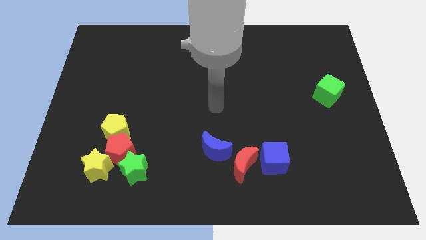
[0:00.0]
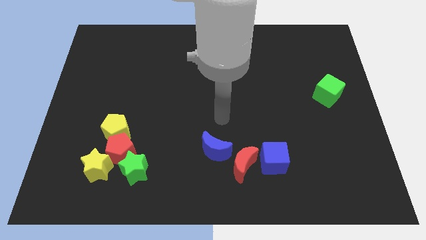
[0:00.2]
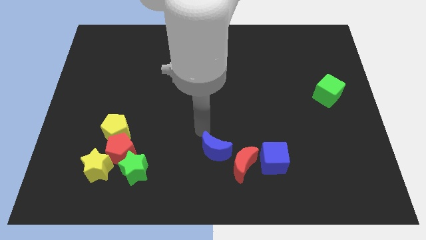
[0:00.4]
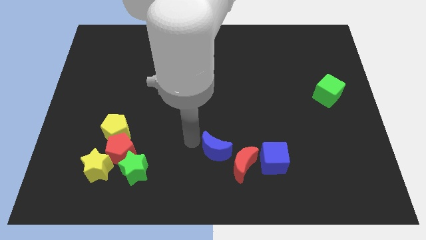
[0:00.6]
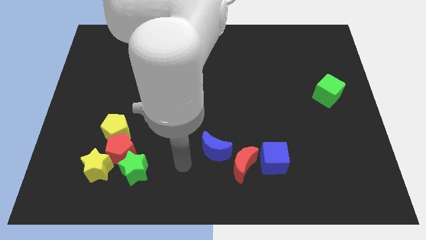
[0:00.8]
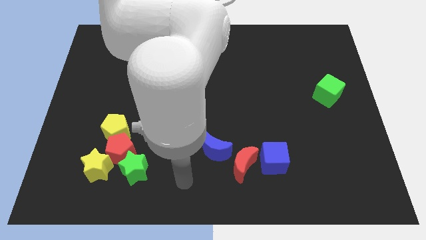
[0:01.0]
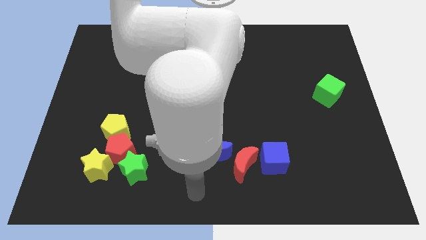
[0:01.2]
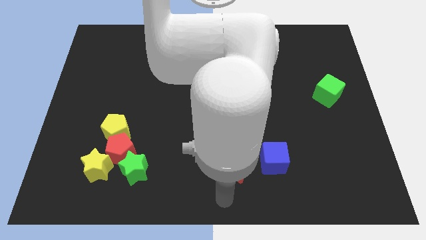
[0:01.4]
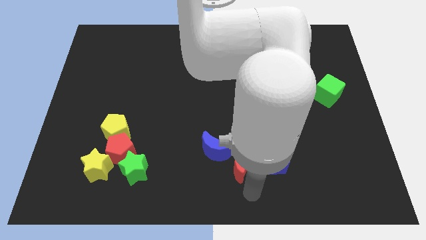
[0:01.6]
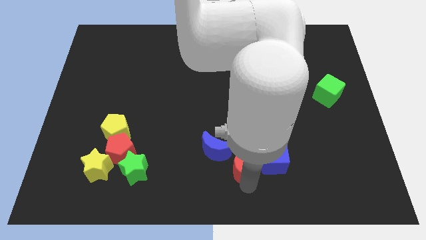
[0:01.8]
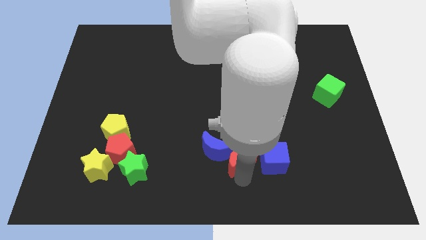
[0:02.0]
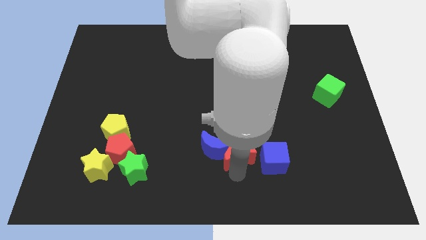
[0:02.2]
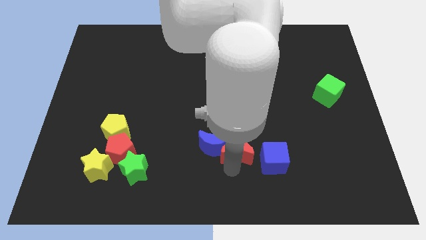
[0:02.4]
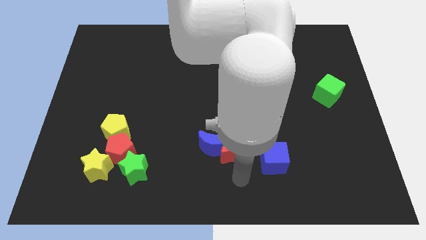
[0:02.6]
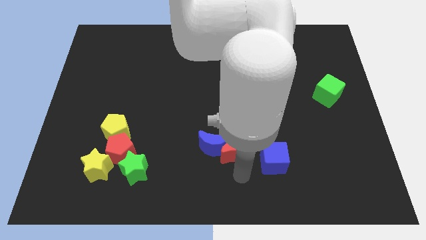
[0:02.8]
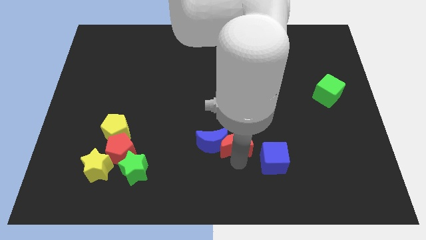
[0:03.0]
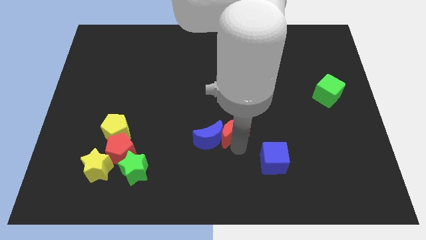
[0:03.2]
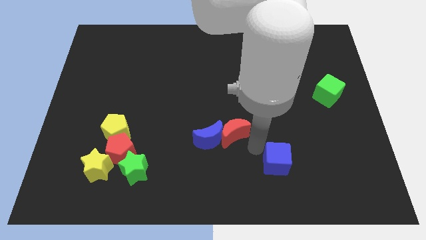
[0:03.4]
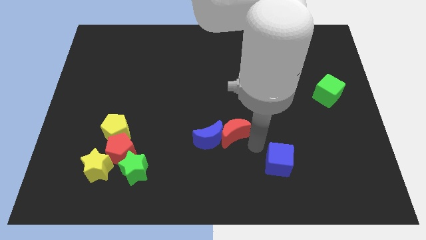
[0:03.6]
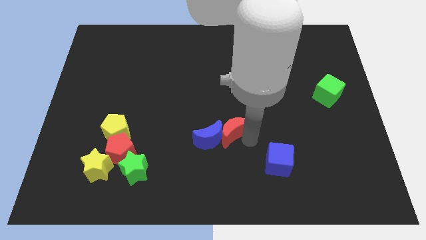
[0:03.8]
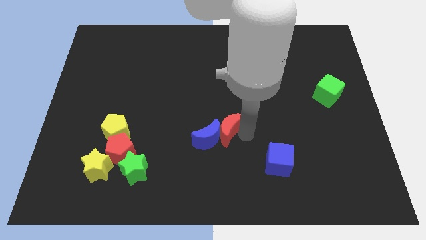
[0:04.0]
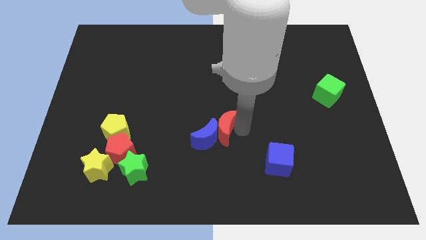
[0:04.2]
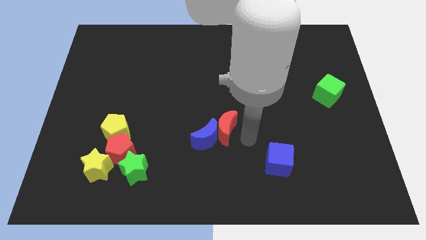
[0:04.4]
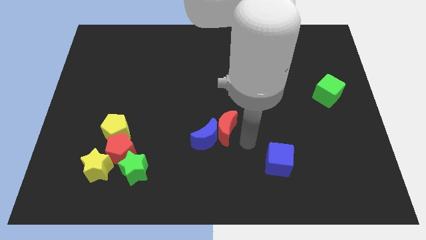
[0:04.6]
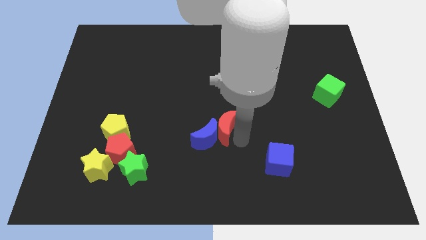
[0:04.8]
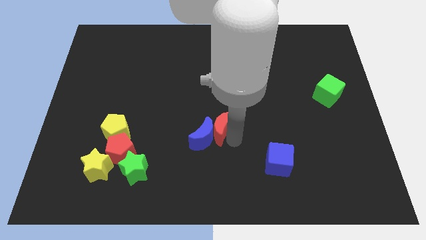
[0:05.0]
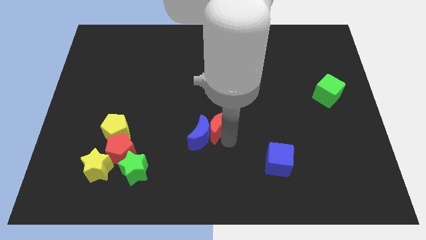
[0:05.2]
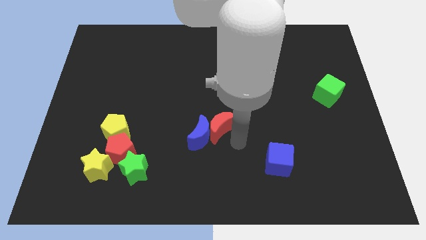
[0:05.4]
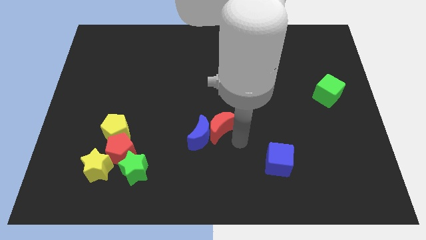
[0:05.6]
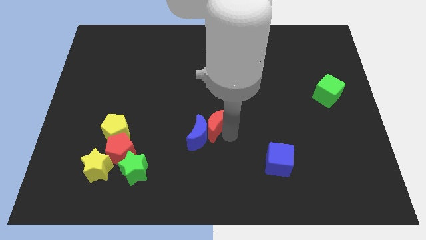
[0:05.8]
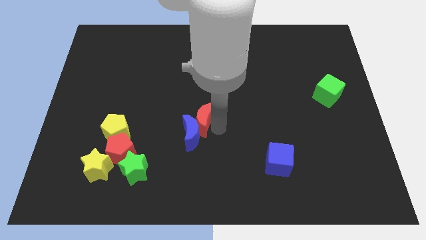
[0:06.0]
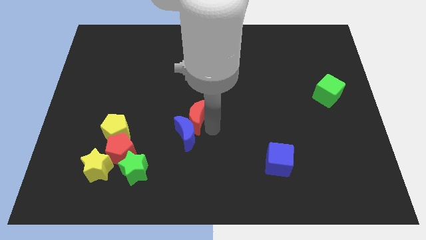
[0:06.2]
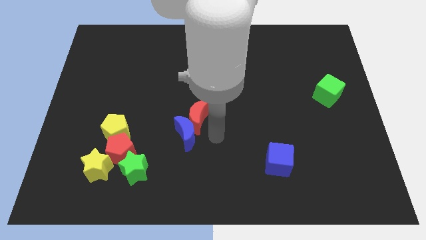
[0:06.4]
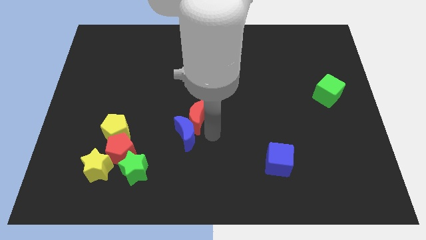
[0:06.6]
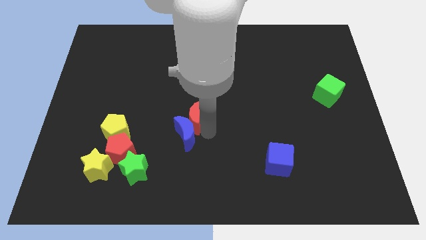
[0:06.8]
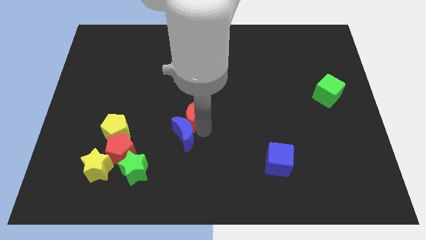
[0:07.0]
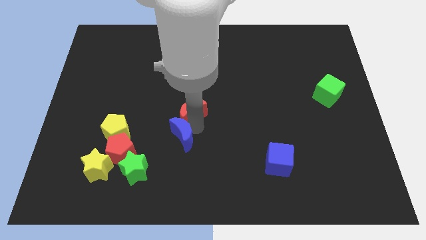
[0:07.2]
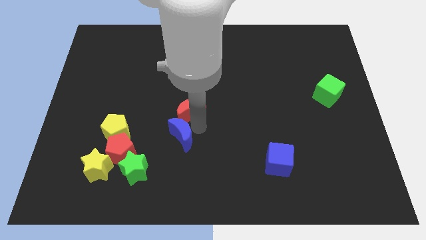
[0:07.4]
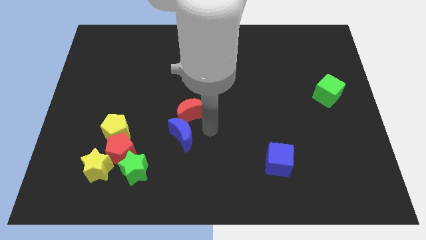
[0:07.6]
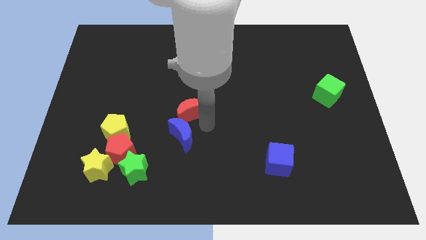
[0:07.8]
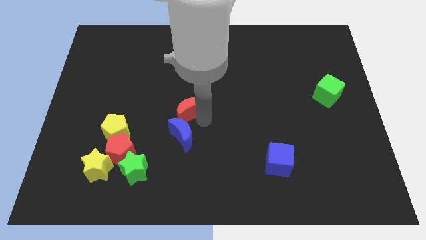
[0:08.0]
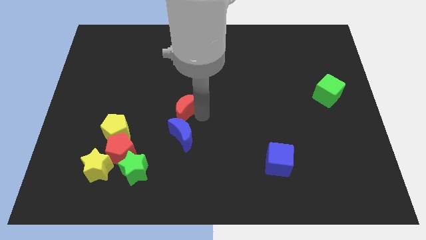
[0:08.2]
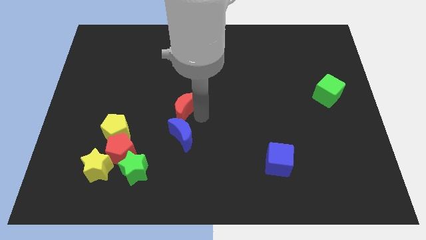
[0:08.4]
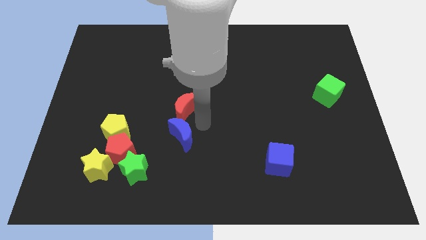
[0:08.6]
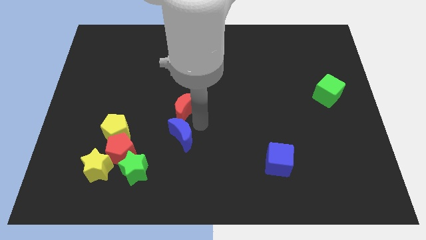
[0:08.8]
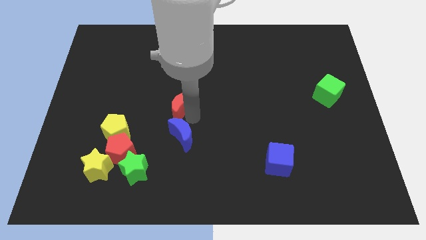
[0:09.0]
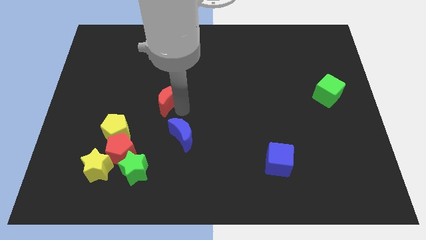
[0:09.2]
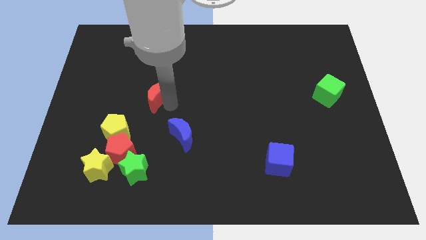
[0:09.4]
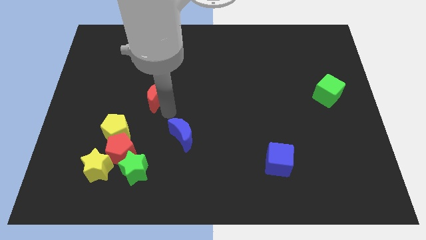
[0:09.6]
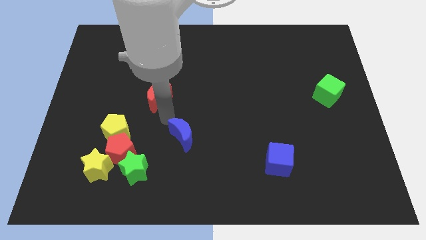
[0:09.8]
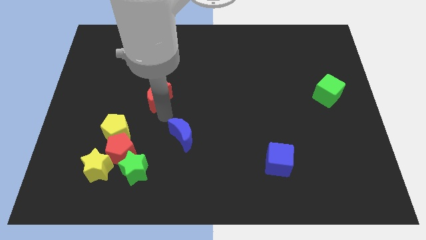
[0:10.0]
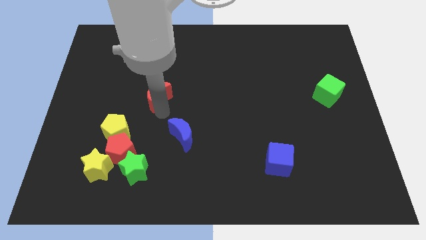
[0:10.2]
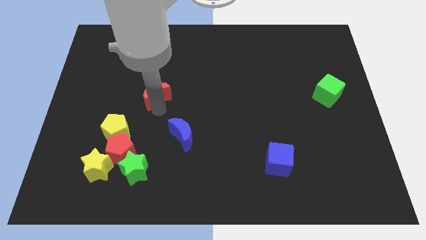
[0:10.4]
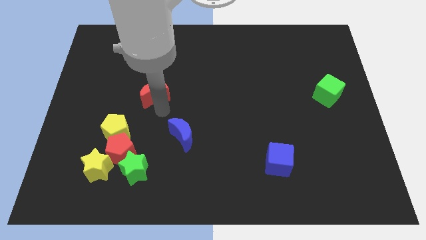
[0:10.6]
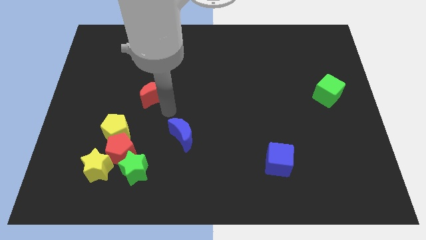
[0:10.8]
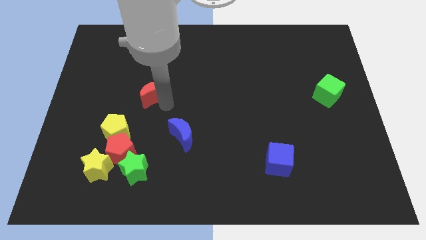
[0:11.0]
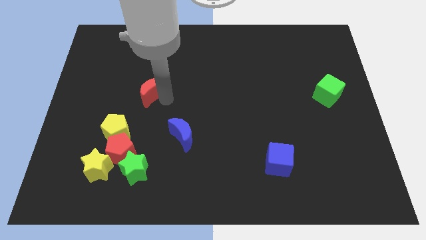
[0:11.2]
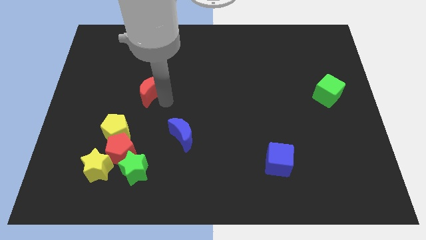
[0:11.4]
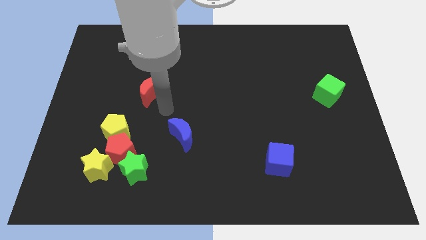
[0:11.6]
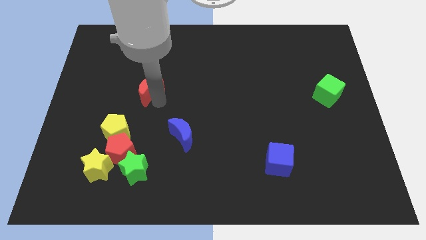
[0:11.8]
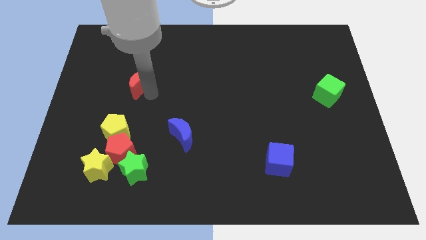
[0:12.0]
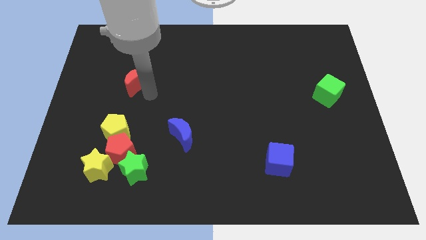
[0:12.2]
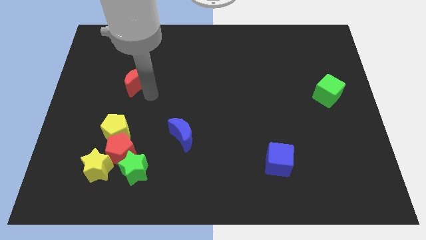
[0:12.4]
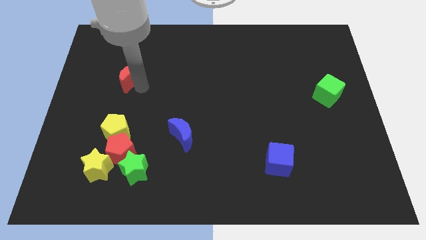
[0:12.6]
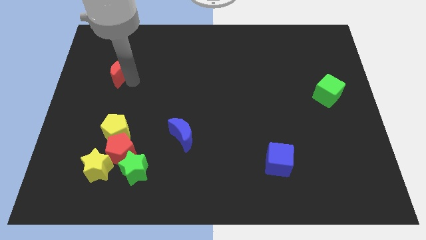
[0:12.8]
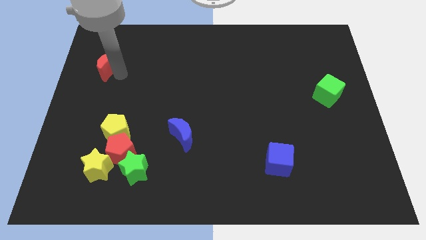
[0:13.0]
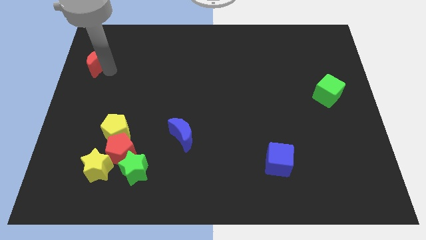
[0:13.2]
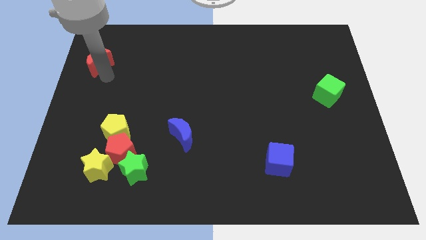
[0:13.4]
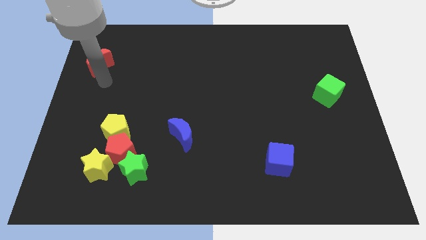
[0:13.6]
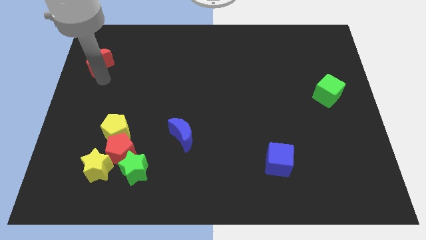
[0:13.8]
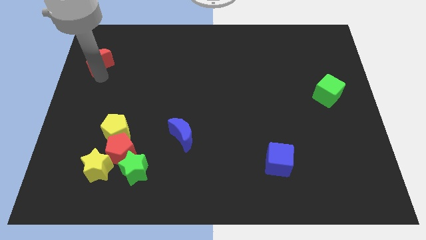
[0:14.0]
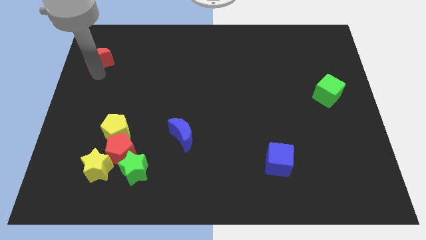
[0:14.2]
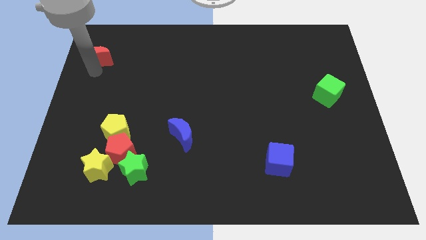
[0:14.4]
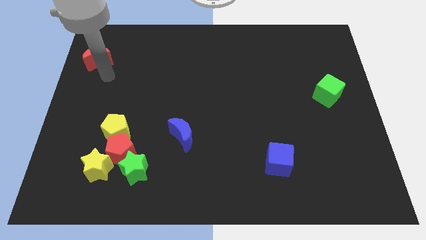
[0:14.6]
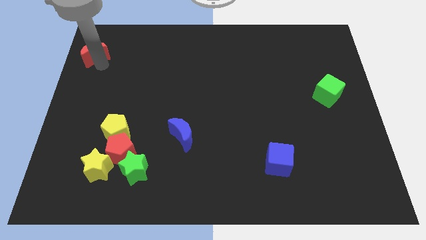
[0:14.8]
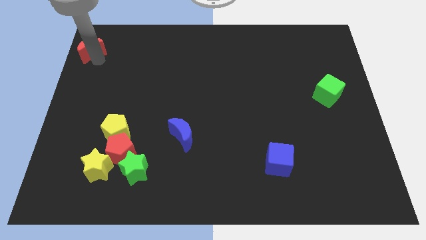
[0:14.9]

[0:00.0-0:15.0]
slide the red moon to the upper left corner
